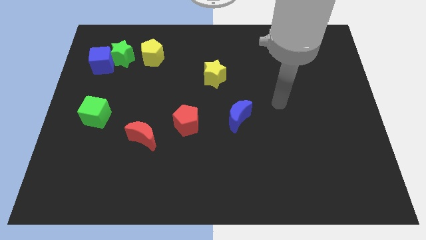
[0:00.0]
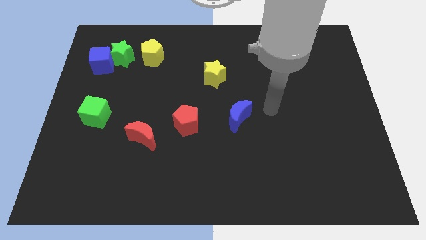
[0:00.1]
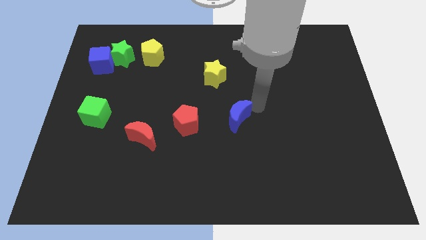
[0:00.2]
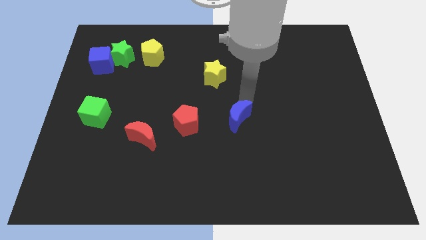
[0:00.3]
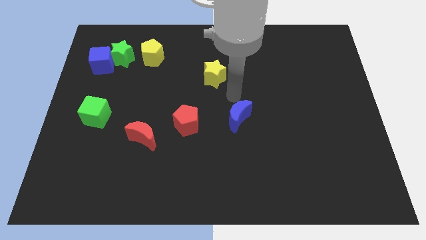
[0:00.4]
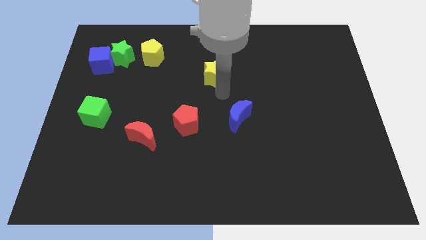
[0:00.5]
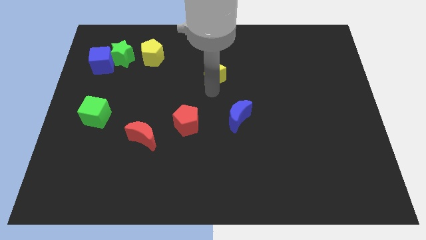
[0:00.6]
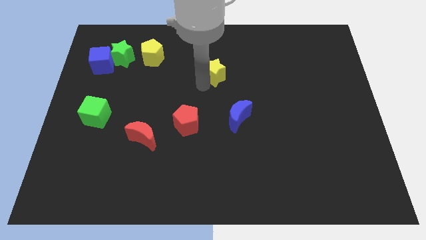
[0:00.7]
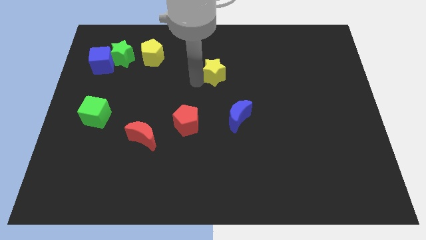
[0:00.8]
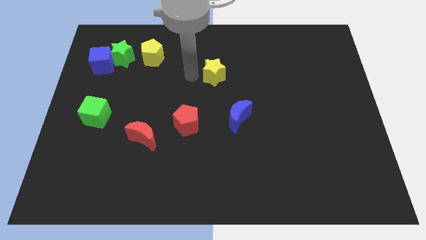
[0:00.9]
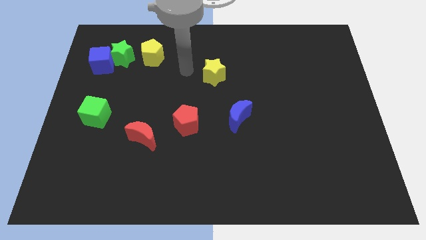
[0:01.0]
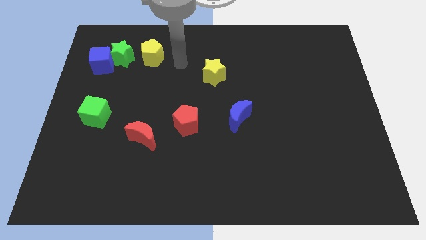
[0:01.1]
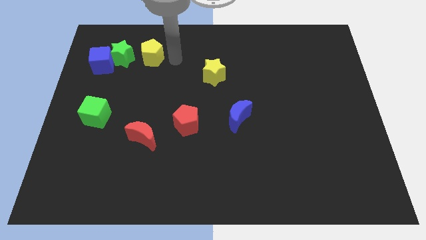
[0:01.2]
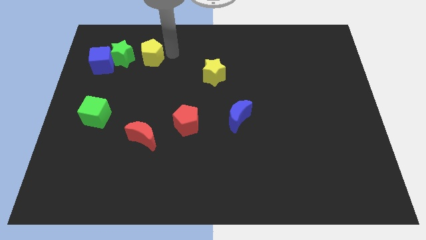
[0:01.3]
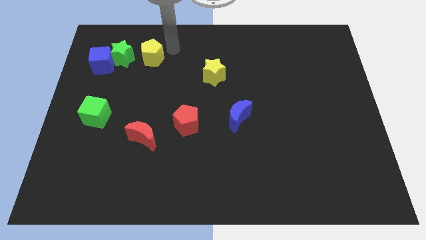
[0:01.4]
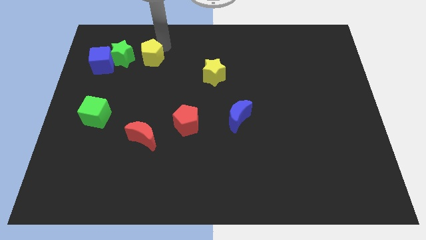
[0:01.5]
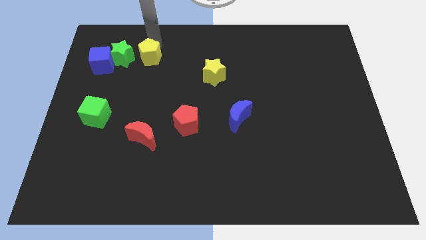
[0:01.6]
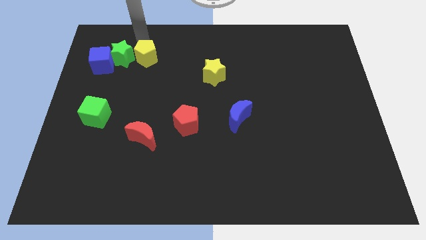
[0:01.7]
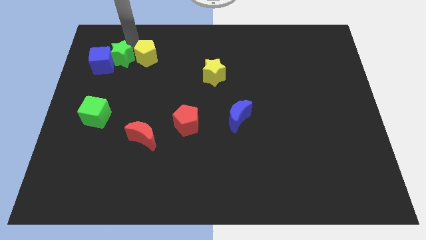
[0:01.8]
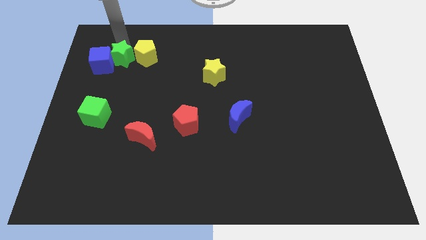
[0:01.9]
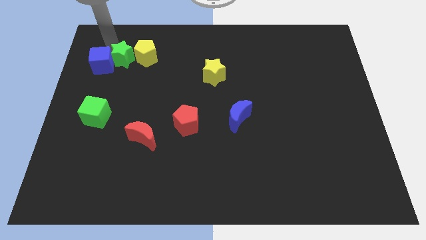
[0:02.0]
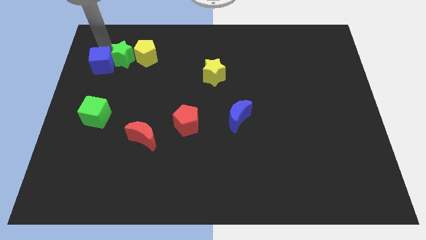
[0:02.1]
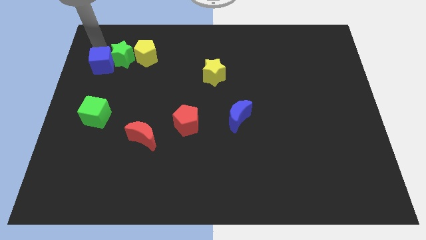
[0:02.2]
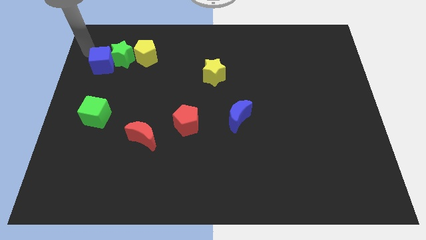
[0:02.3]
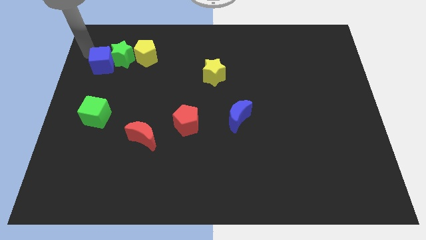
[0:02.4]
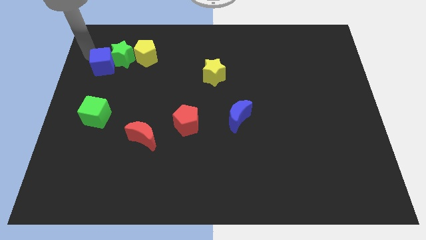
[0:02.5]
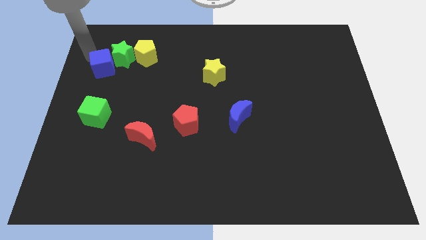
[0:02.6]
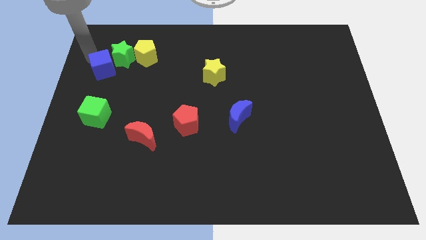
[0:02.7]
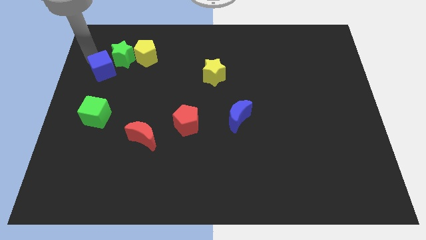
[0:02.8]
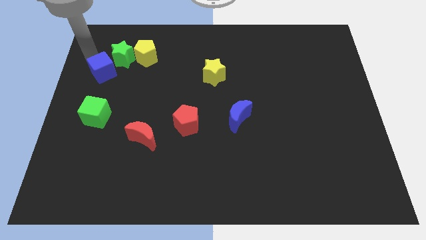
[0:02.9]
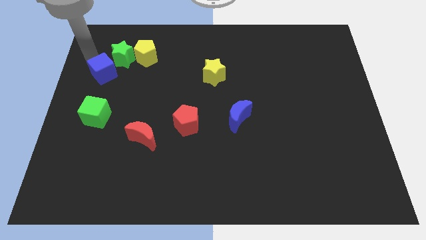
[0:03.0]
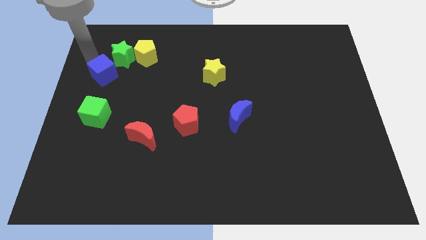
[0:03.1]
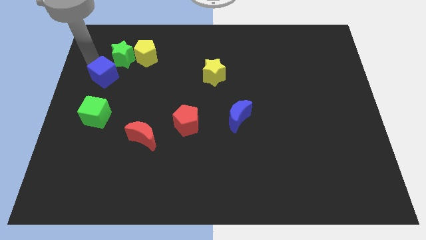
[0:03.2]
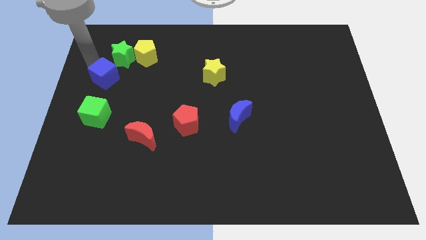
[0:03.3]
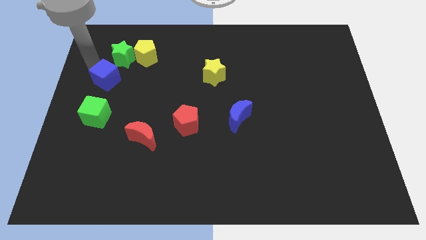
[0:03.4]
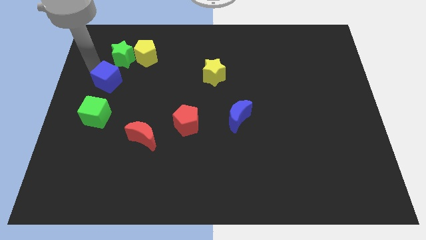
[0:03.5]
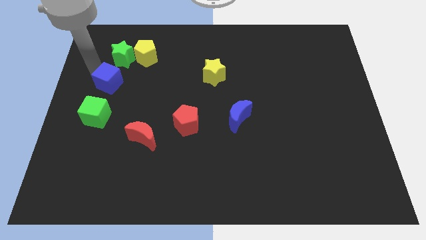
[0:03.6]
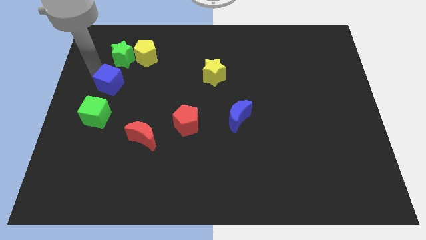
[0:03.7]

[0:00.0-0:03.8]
slightly move the blue cube diagonally down and to the right

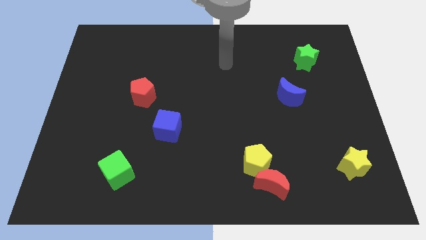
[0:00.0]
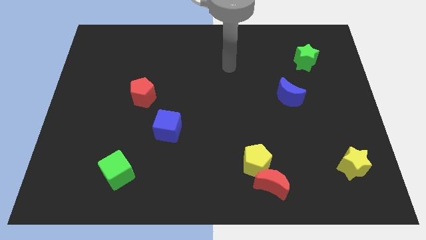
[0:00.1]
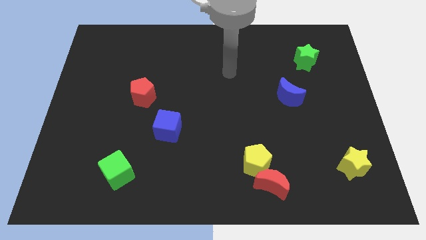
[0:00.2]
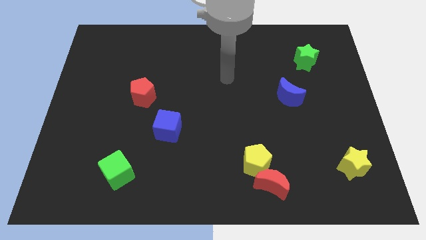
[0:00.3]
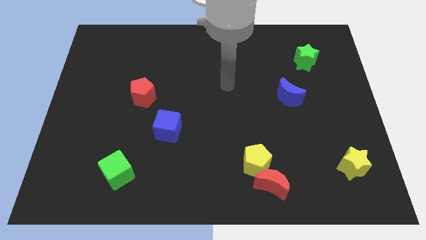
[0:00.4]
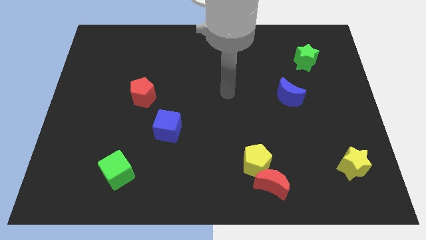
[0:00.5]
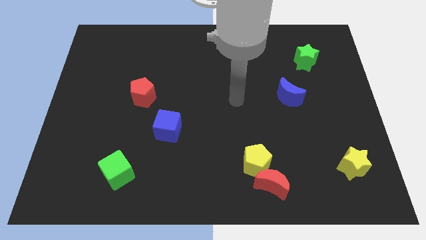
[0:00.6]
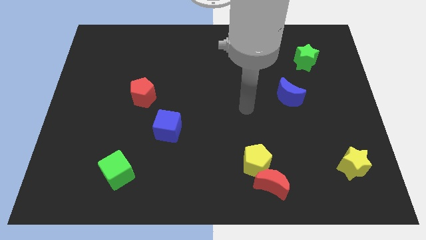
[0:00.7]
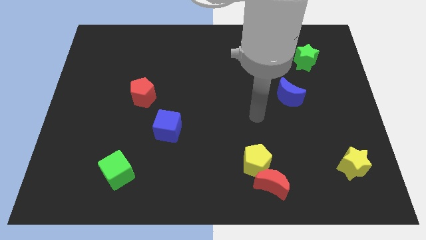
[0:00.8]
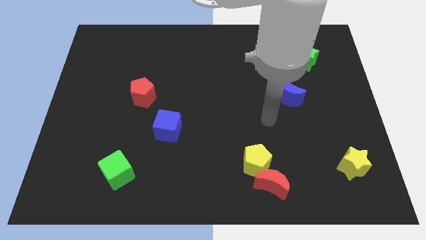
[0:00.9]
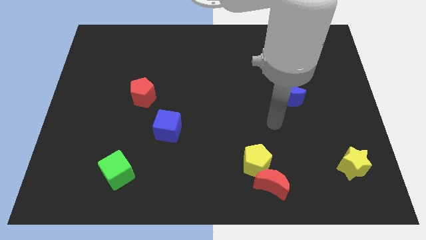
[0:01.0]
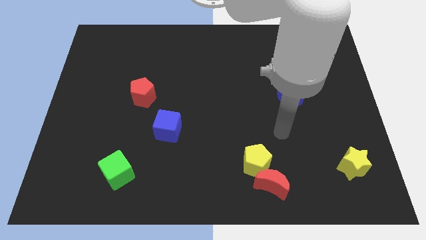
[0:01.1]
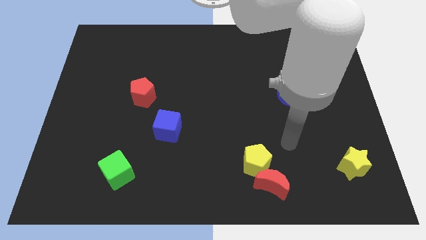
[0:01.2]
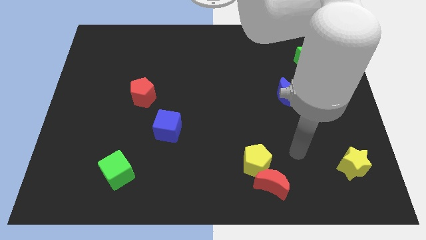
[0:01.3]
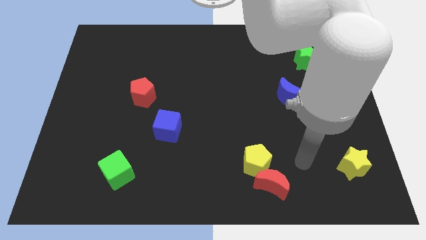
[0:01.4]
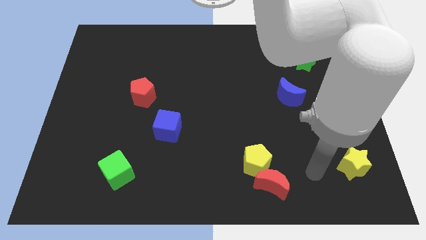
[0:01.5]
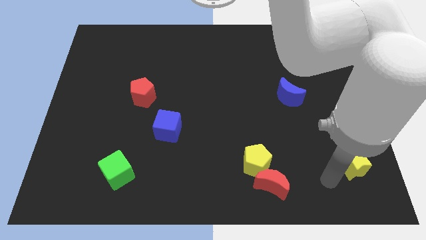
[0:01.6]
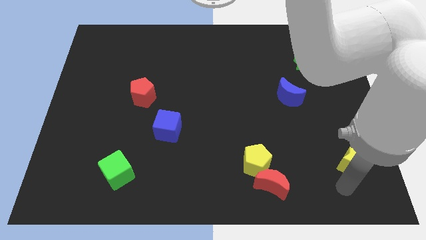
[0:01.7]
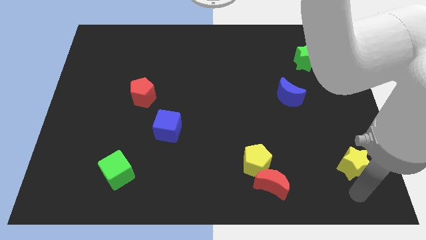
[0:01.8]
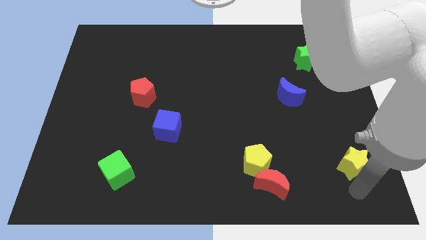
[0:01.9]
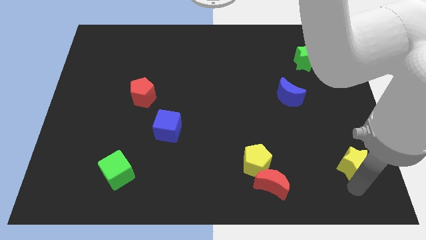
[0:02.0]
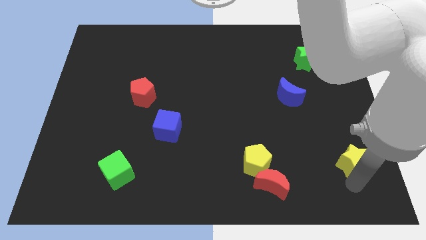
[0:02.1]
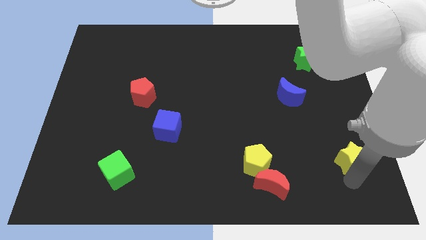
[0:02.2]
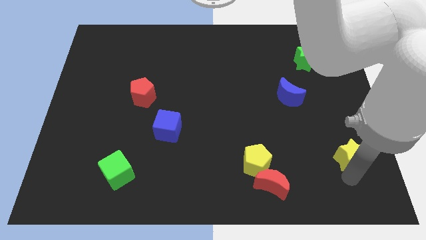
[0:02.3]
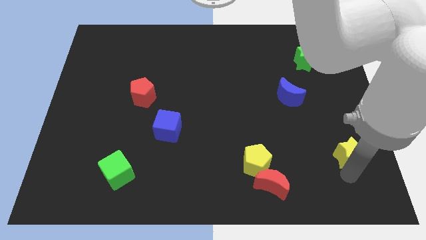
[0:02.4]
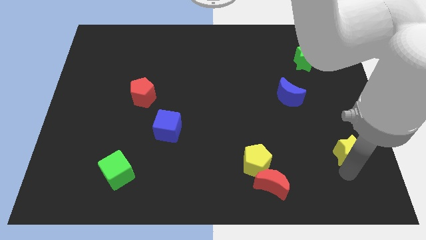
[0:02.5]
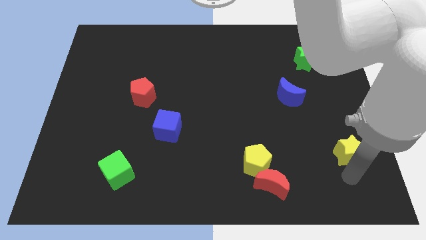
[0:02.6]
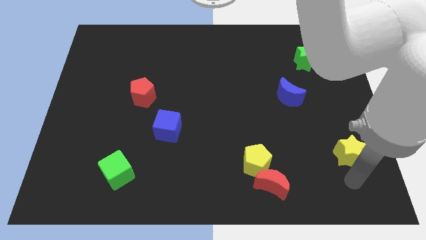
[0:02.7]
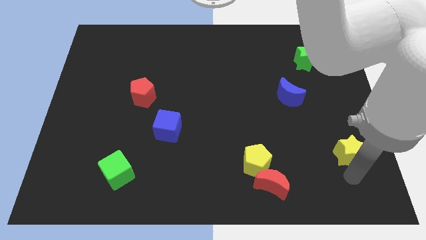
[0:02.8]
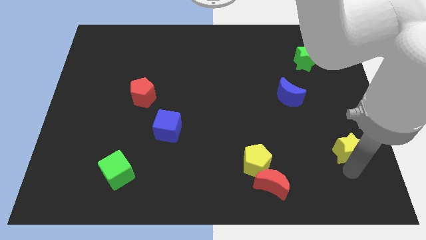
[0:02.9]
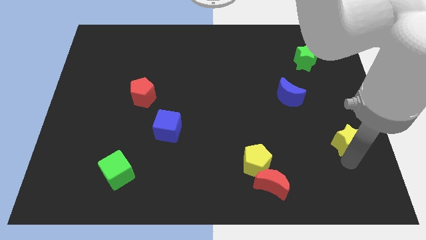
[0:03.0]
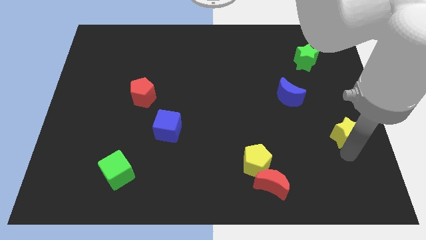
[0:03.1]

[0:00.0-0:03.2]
slightly slide the yellow star upwards

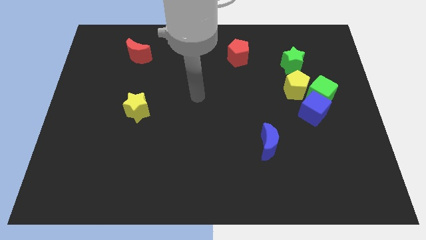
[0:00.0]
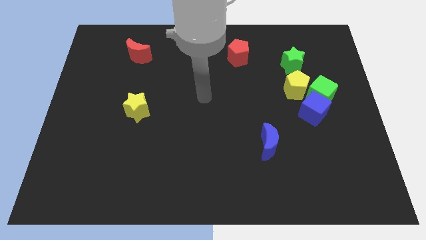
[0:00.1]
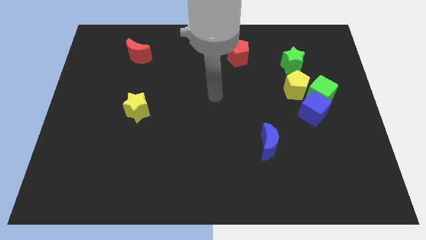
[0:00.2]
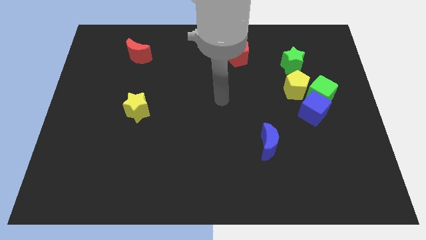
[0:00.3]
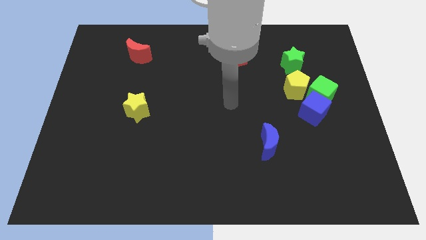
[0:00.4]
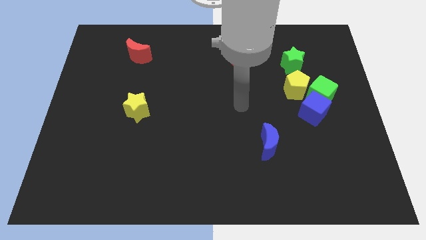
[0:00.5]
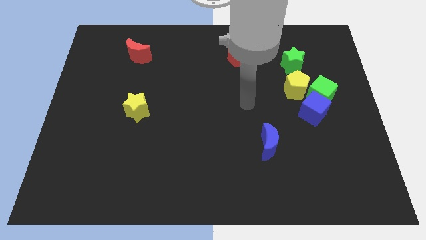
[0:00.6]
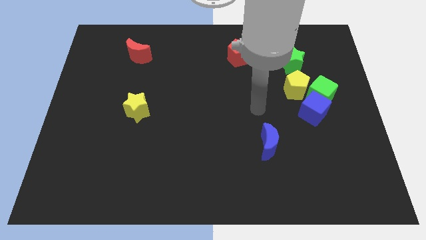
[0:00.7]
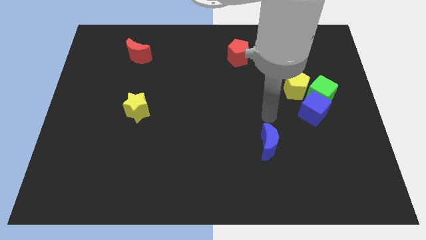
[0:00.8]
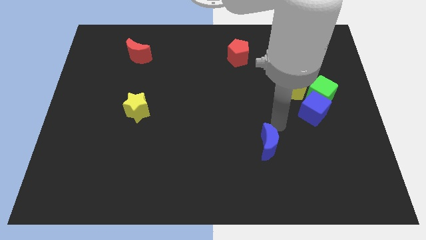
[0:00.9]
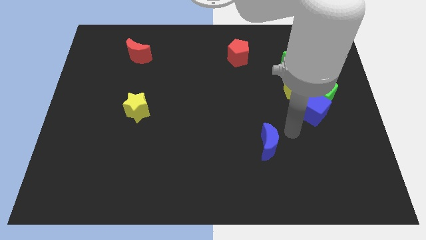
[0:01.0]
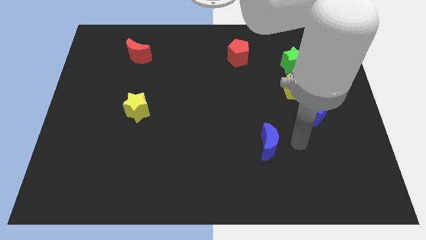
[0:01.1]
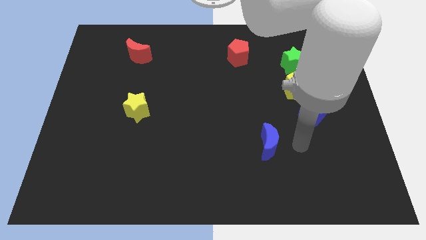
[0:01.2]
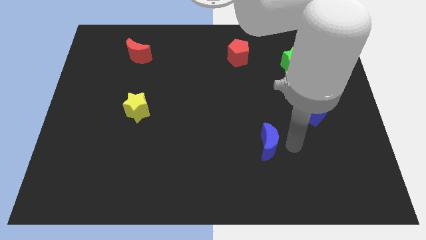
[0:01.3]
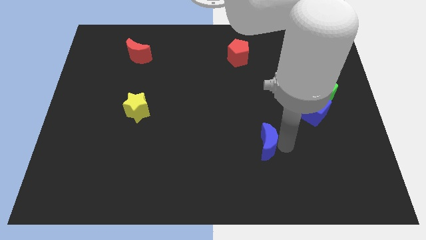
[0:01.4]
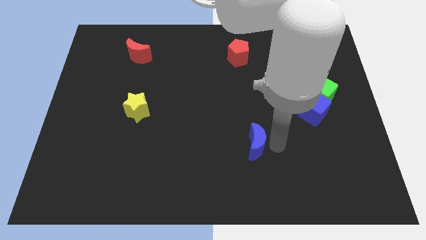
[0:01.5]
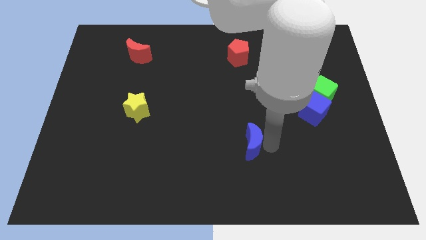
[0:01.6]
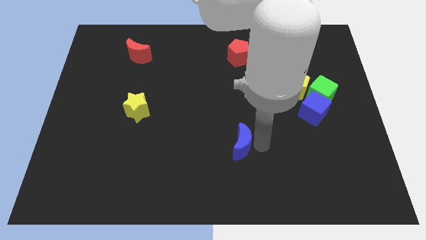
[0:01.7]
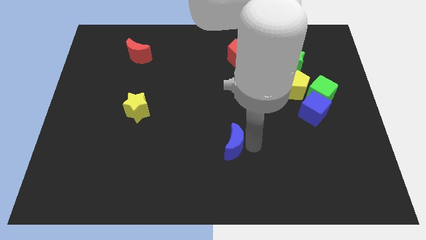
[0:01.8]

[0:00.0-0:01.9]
push the blue moon to the left slightly
